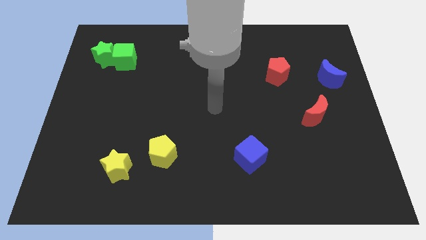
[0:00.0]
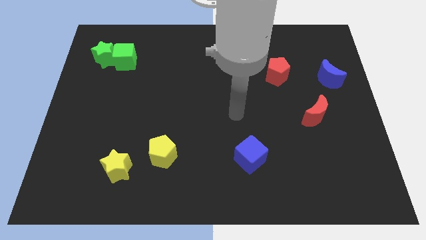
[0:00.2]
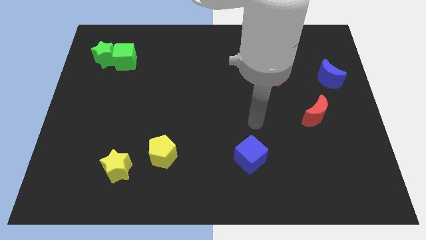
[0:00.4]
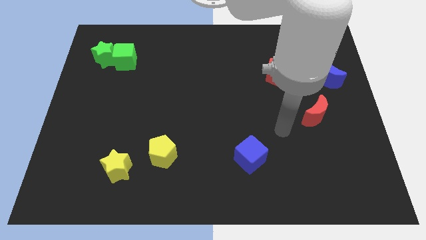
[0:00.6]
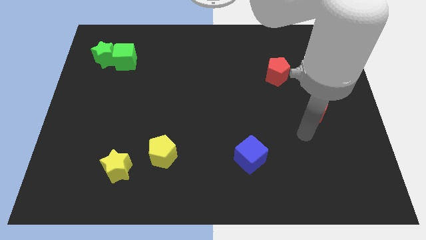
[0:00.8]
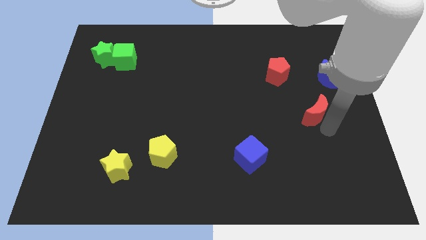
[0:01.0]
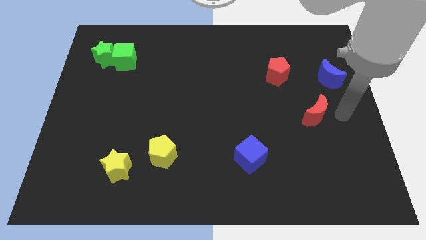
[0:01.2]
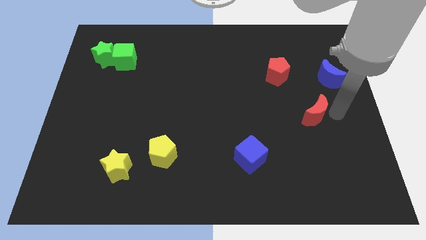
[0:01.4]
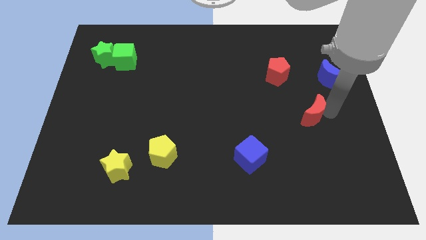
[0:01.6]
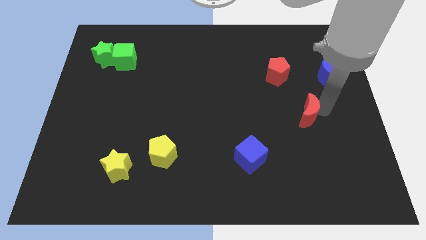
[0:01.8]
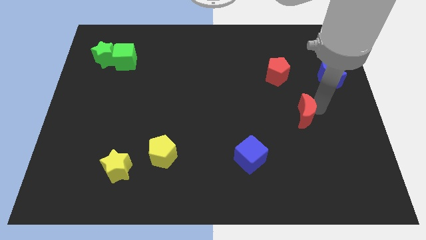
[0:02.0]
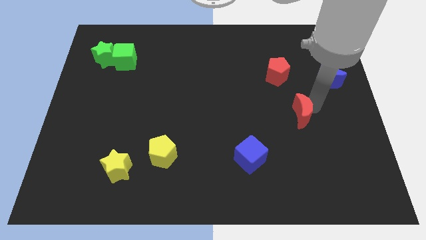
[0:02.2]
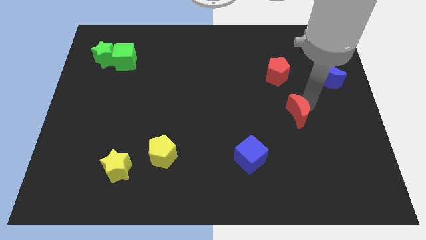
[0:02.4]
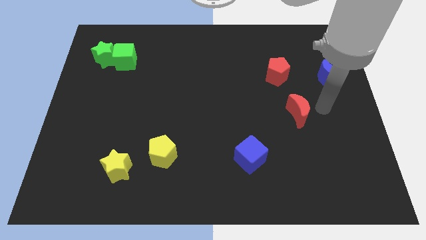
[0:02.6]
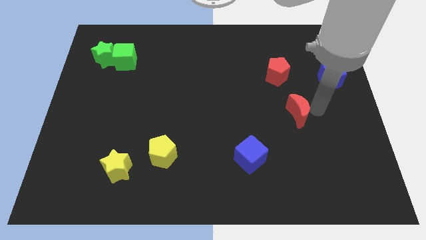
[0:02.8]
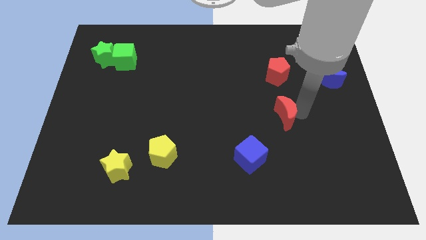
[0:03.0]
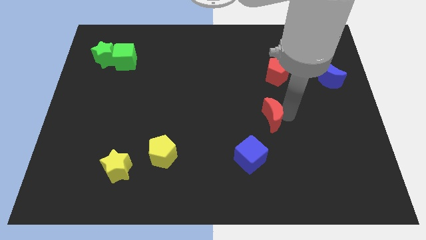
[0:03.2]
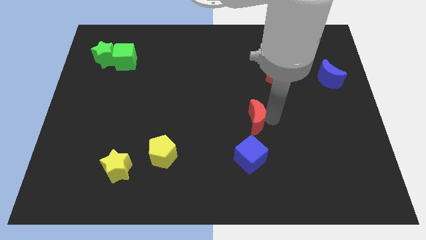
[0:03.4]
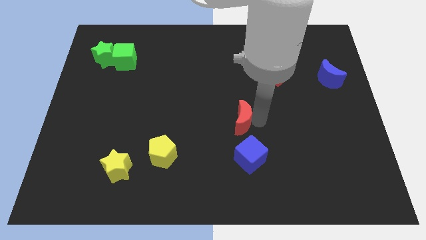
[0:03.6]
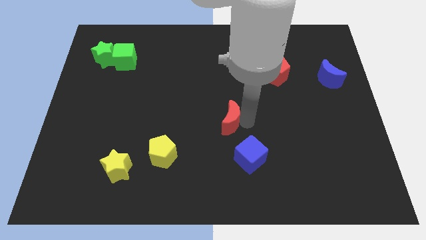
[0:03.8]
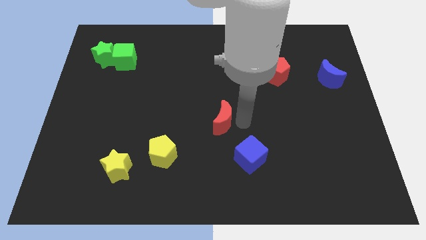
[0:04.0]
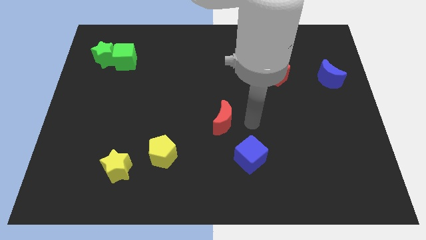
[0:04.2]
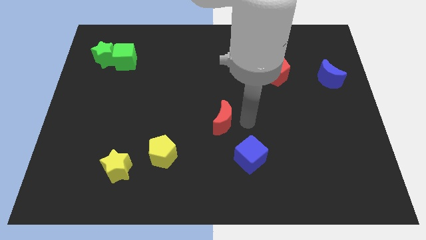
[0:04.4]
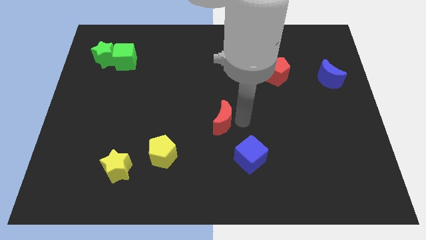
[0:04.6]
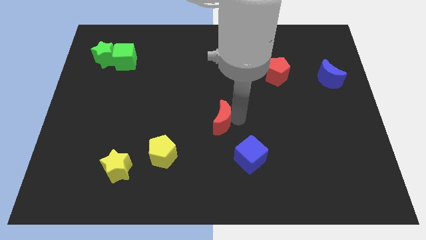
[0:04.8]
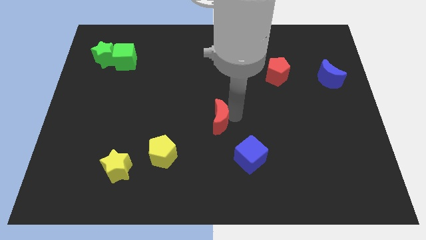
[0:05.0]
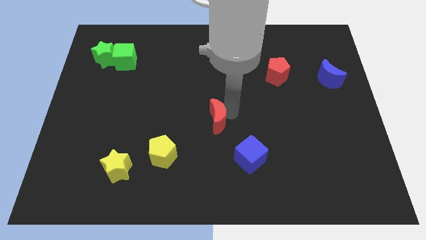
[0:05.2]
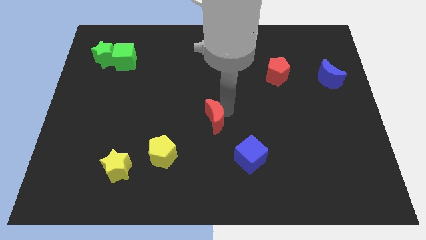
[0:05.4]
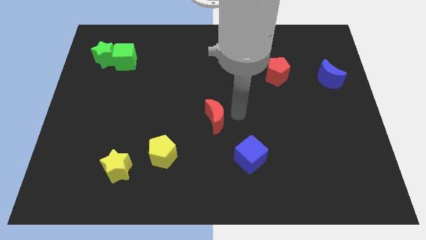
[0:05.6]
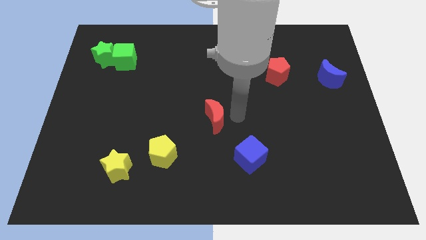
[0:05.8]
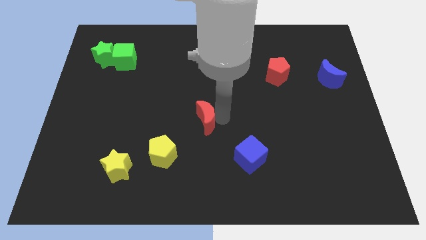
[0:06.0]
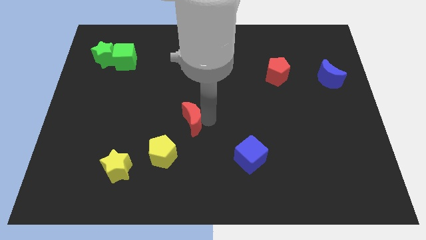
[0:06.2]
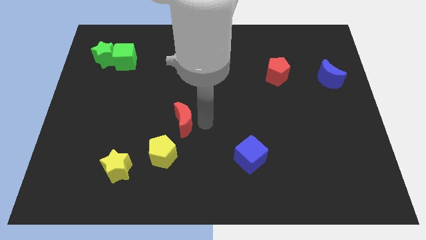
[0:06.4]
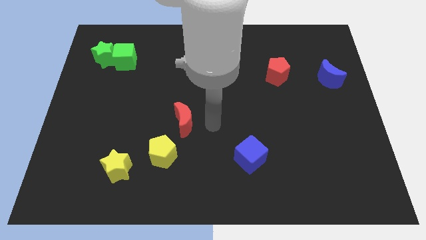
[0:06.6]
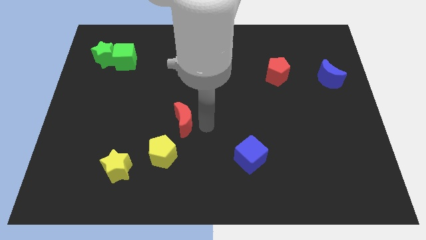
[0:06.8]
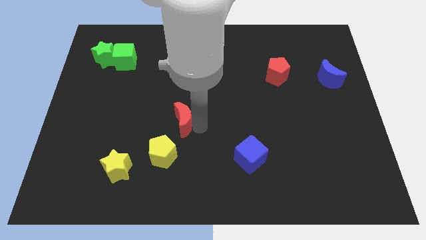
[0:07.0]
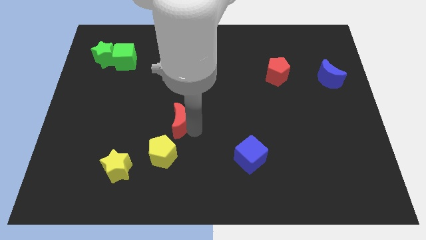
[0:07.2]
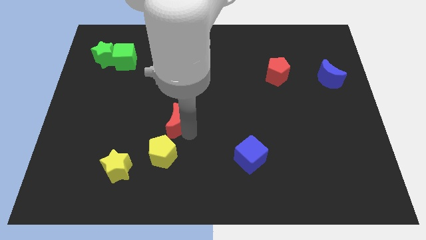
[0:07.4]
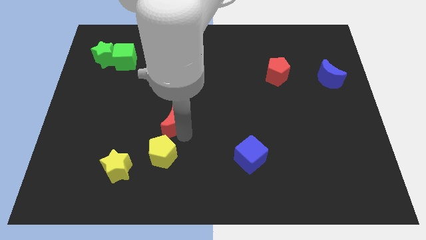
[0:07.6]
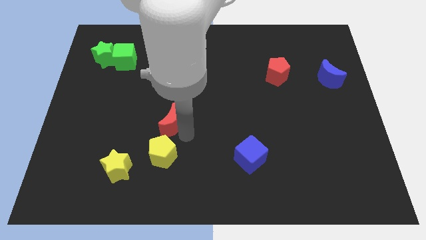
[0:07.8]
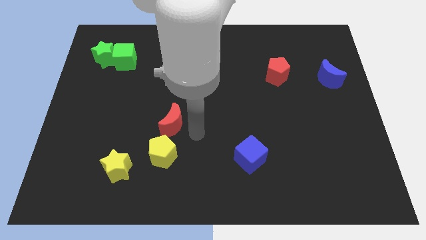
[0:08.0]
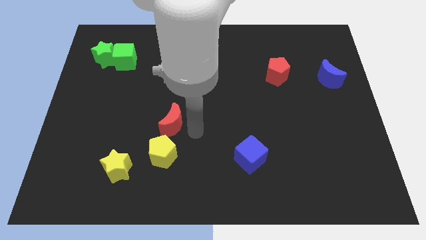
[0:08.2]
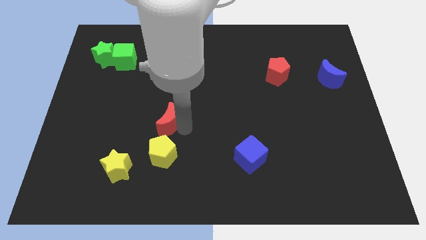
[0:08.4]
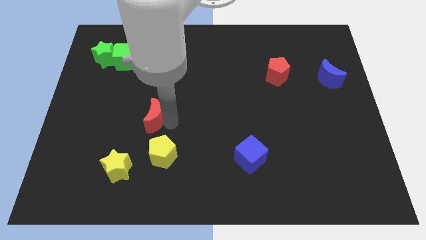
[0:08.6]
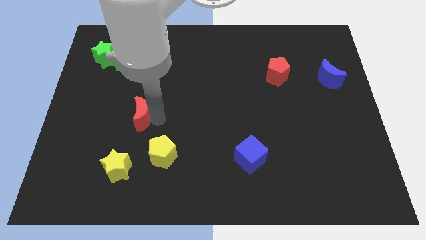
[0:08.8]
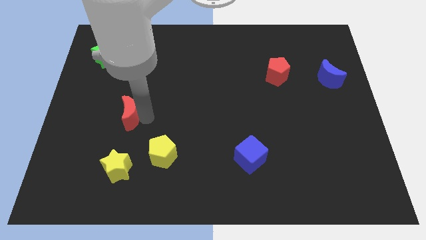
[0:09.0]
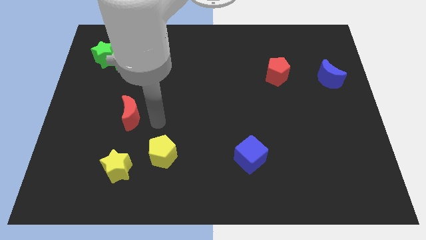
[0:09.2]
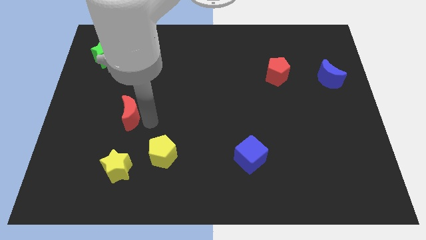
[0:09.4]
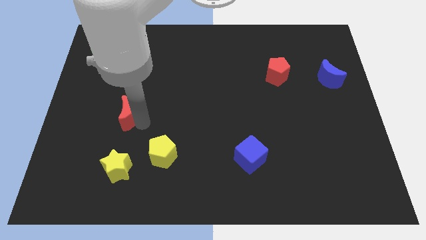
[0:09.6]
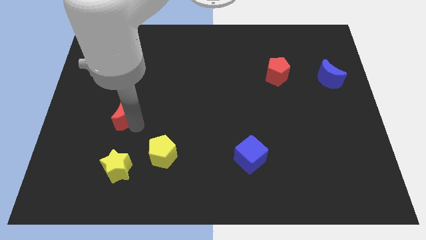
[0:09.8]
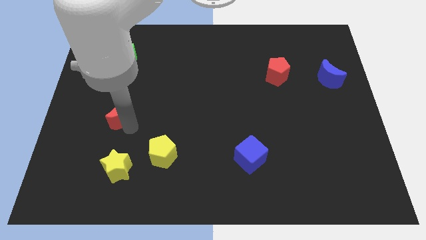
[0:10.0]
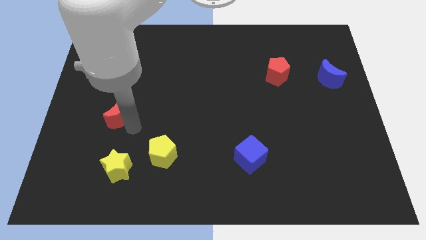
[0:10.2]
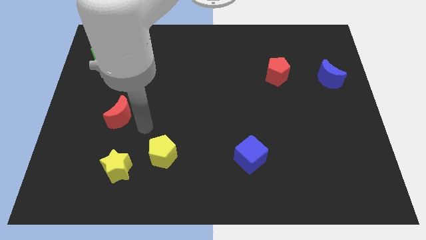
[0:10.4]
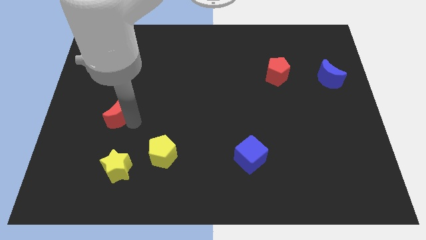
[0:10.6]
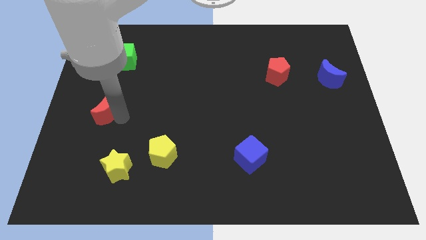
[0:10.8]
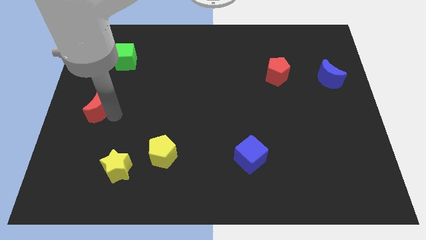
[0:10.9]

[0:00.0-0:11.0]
move the red moon to the left side of the board

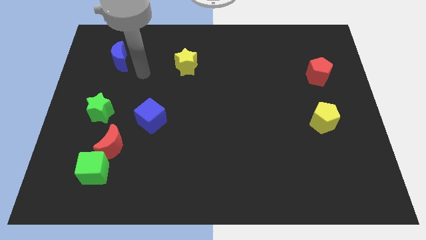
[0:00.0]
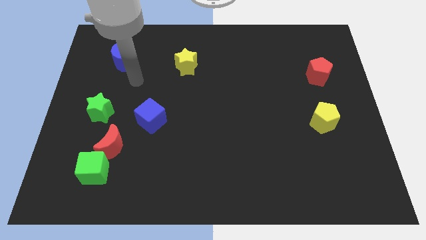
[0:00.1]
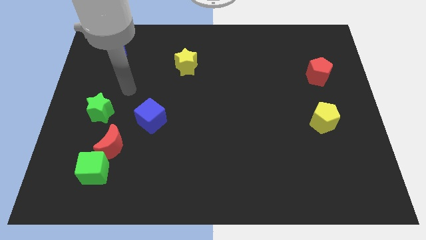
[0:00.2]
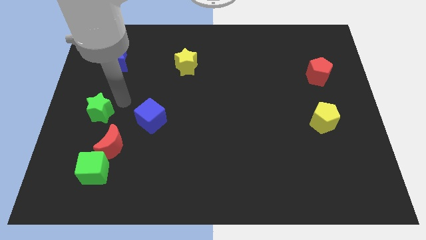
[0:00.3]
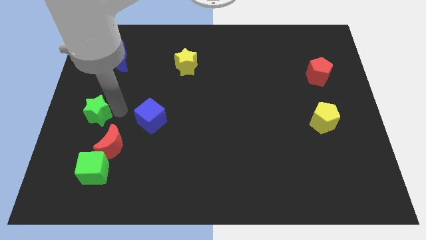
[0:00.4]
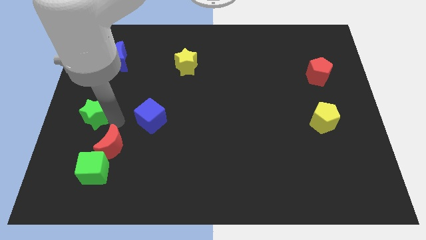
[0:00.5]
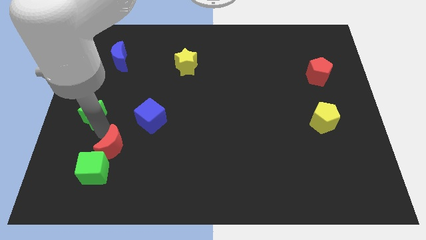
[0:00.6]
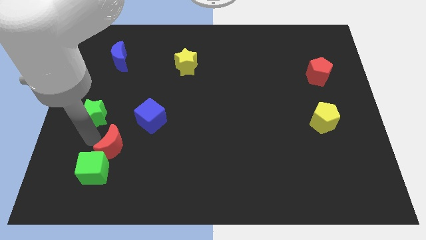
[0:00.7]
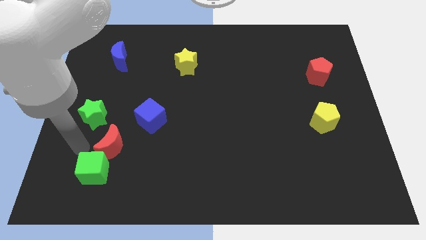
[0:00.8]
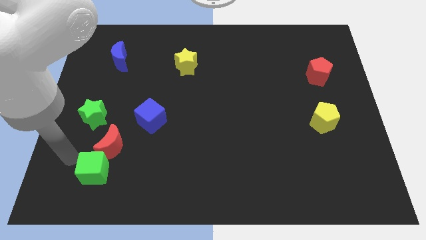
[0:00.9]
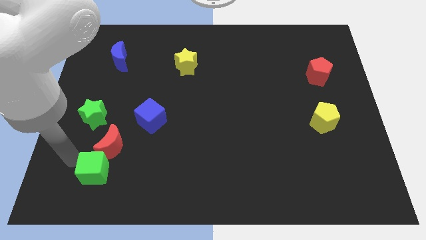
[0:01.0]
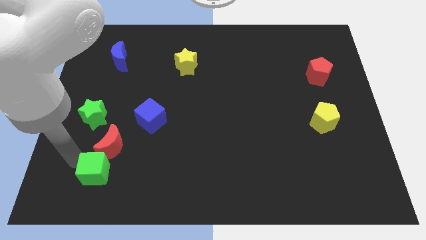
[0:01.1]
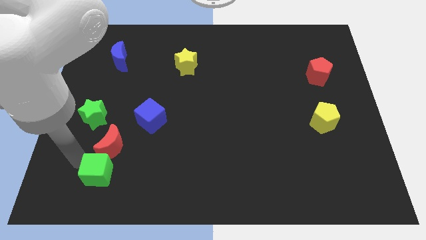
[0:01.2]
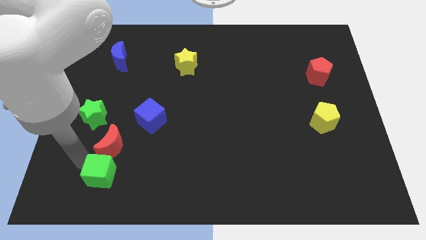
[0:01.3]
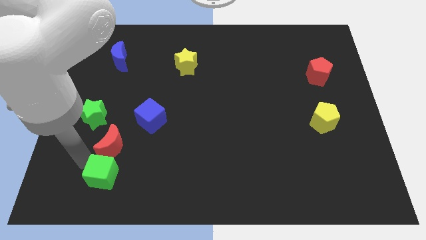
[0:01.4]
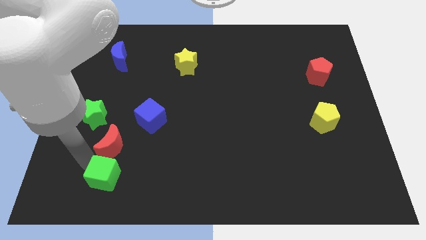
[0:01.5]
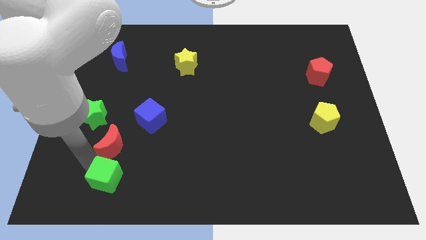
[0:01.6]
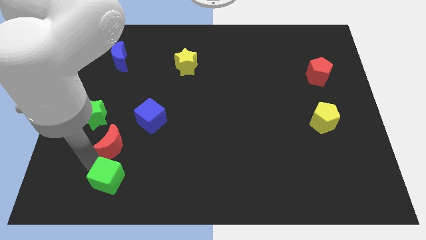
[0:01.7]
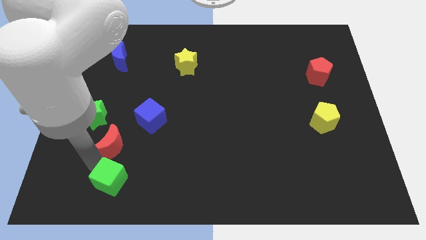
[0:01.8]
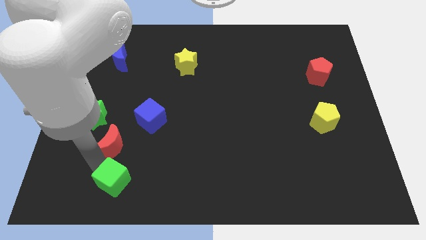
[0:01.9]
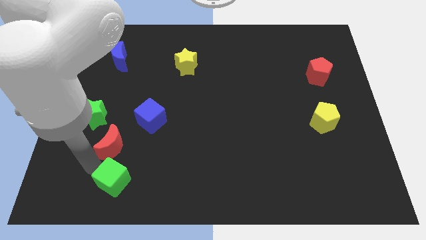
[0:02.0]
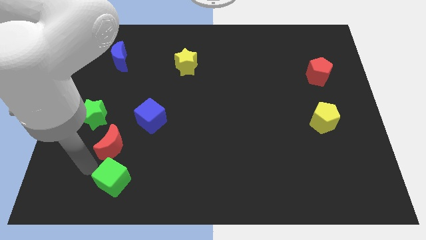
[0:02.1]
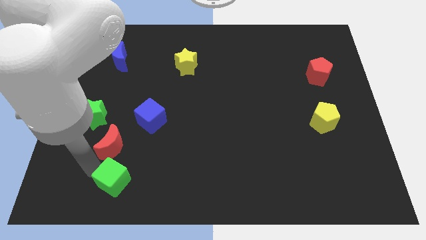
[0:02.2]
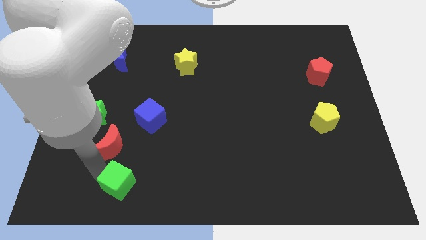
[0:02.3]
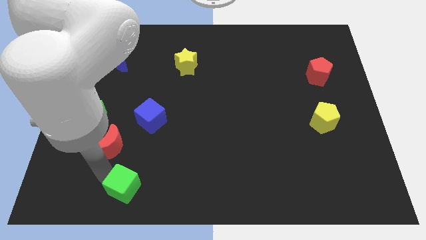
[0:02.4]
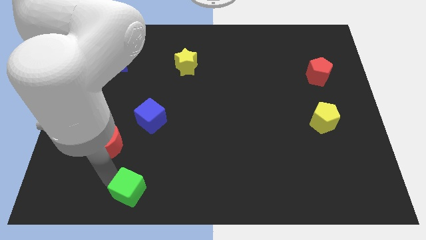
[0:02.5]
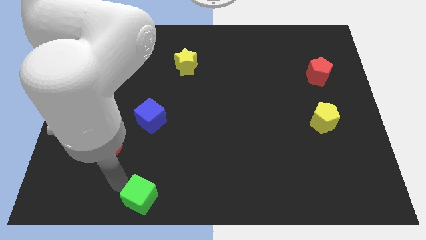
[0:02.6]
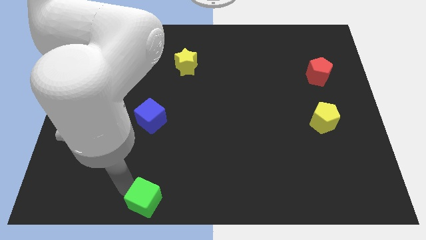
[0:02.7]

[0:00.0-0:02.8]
move the green cube to the bottom
